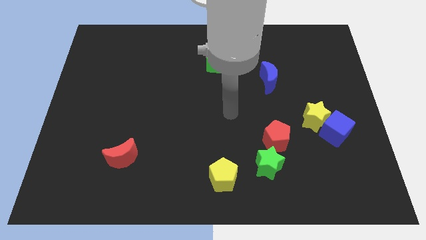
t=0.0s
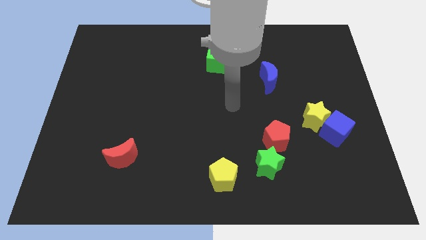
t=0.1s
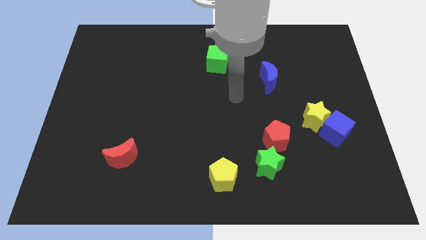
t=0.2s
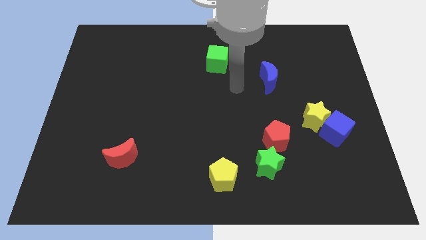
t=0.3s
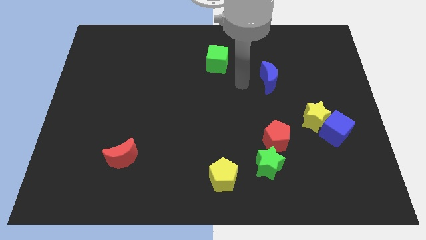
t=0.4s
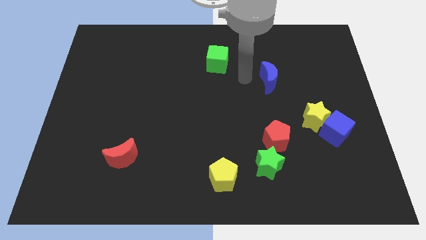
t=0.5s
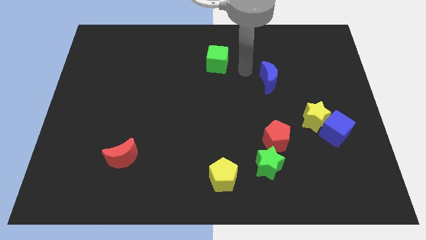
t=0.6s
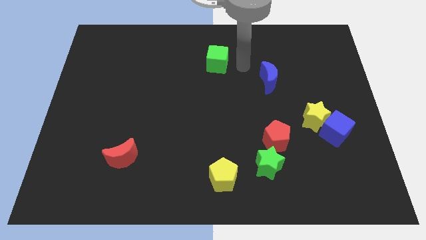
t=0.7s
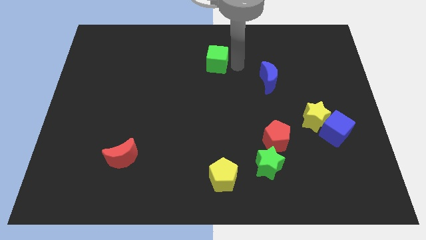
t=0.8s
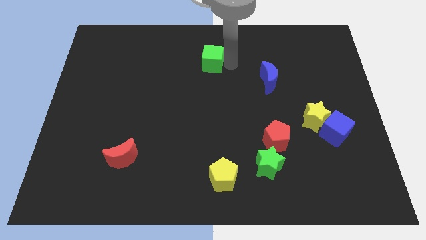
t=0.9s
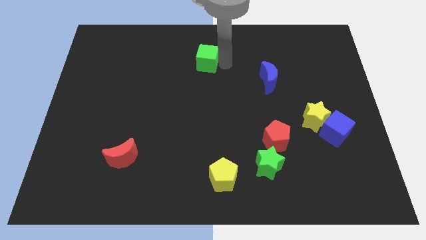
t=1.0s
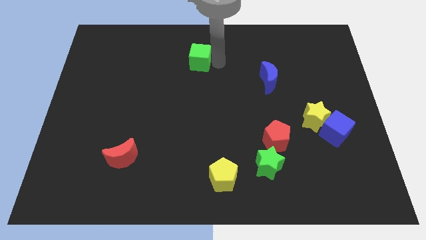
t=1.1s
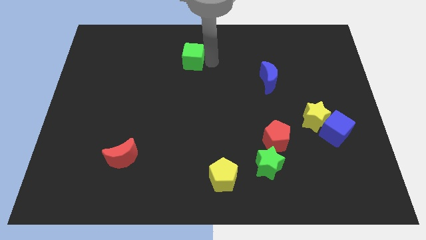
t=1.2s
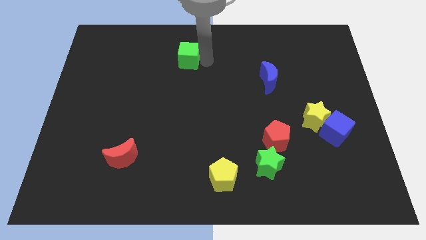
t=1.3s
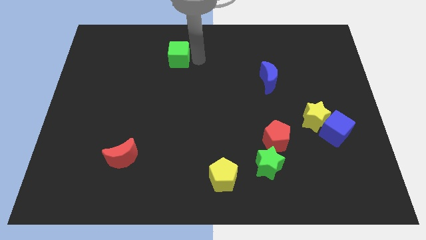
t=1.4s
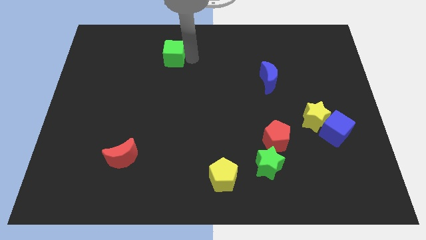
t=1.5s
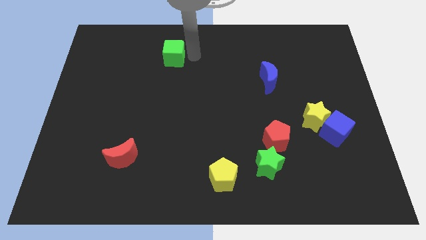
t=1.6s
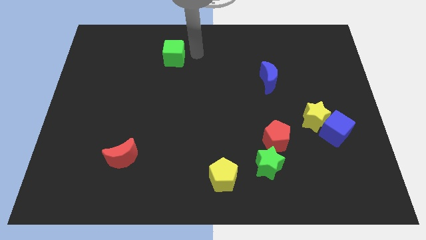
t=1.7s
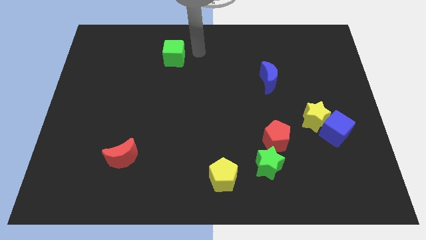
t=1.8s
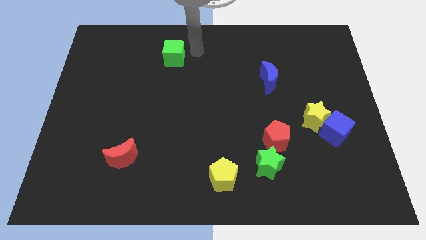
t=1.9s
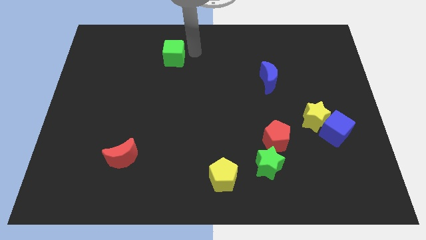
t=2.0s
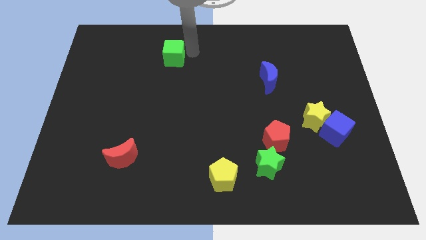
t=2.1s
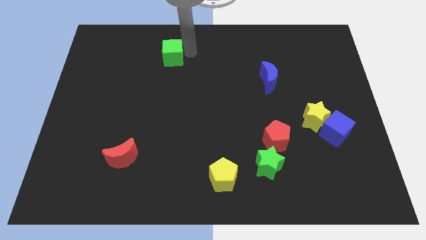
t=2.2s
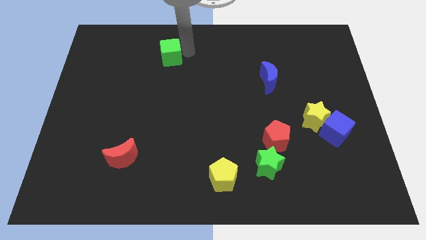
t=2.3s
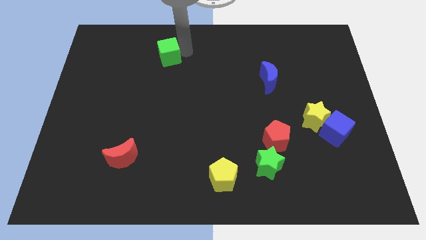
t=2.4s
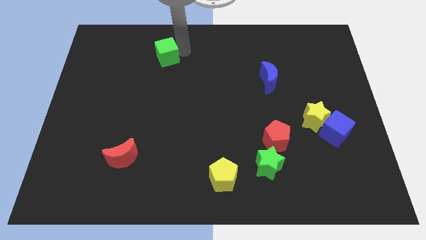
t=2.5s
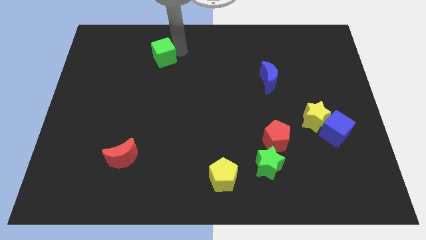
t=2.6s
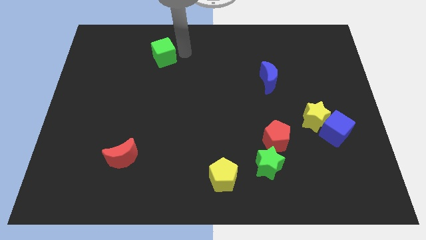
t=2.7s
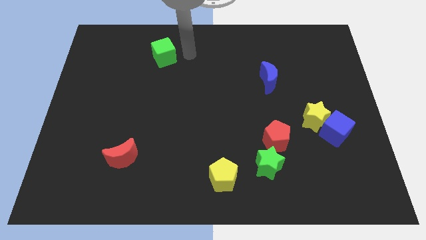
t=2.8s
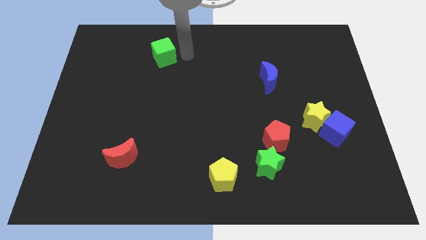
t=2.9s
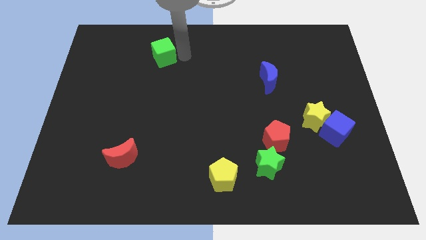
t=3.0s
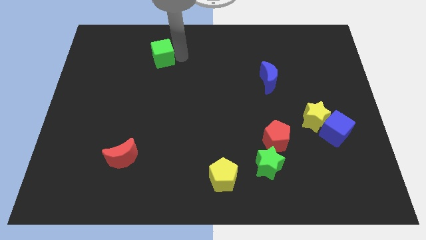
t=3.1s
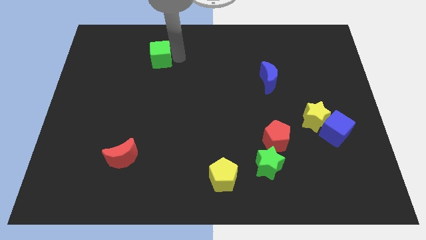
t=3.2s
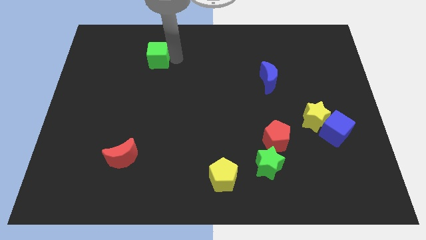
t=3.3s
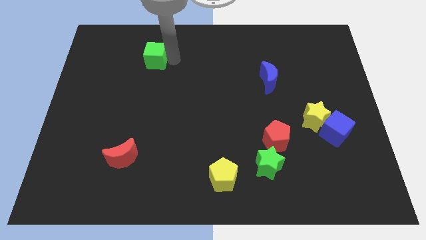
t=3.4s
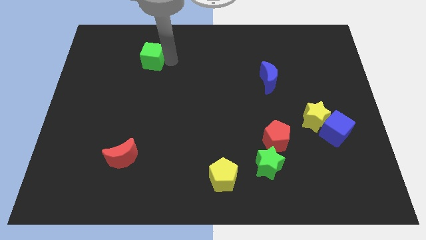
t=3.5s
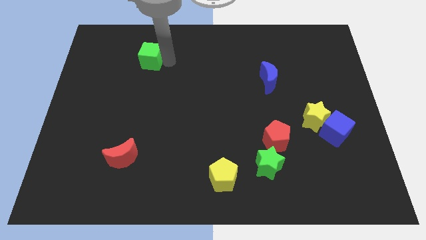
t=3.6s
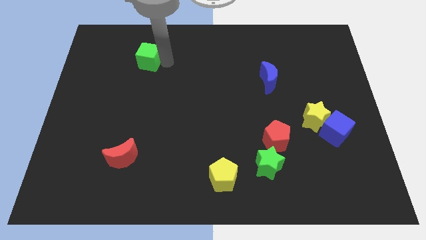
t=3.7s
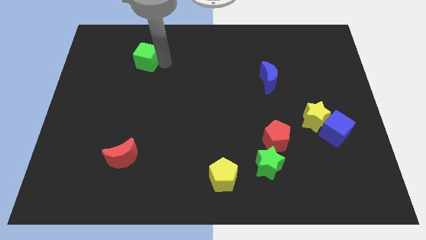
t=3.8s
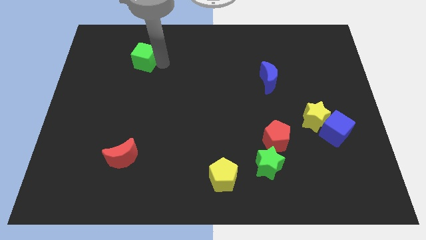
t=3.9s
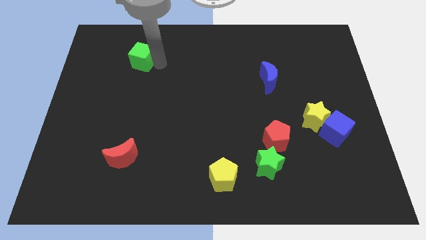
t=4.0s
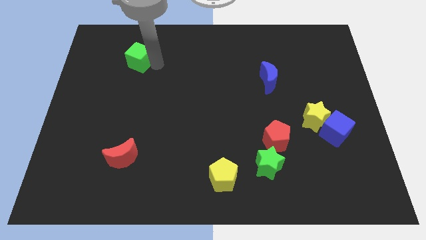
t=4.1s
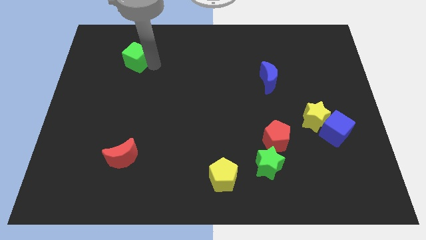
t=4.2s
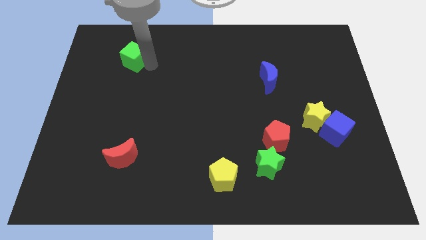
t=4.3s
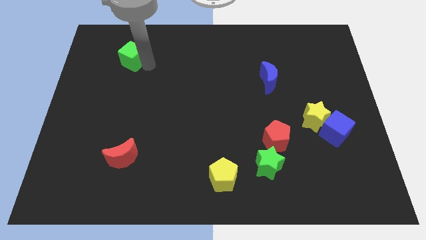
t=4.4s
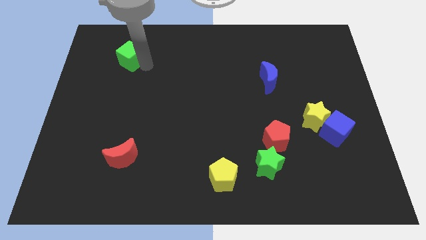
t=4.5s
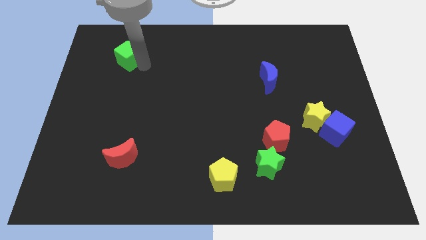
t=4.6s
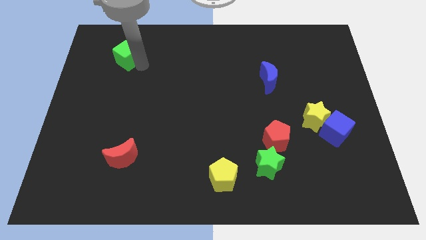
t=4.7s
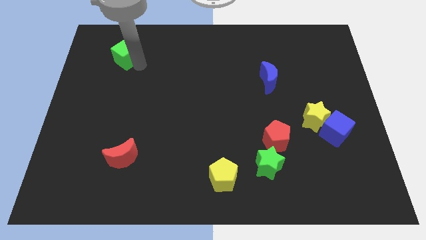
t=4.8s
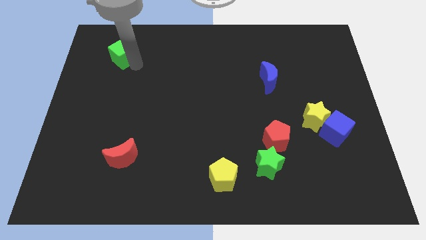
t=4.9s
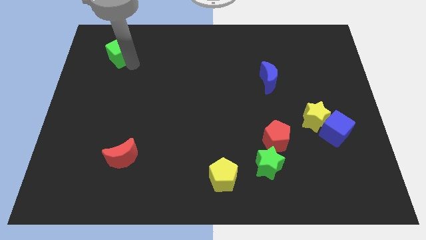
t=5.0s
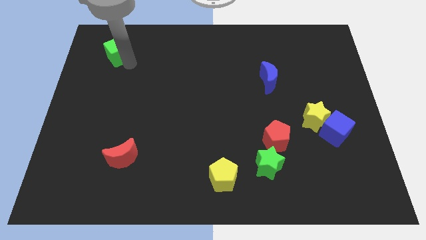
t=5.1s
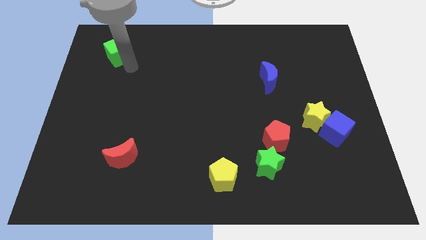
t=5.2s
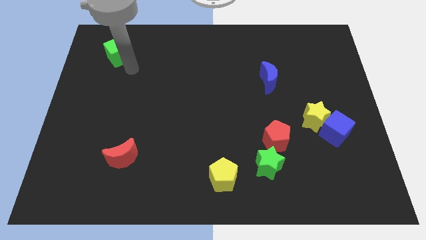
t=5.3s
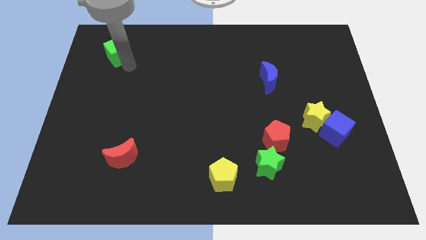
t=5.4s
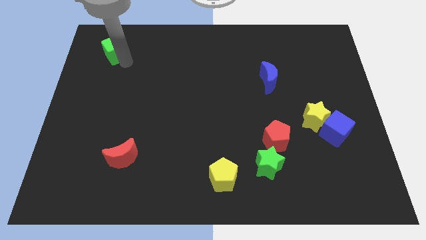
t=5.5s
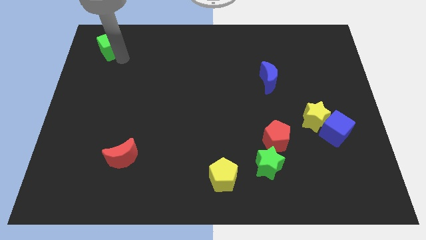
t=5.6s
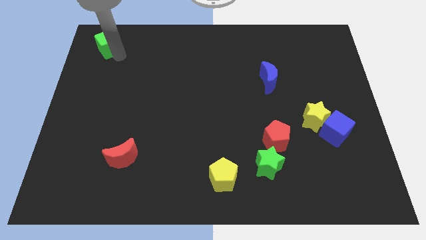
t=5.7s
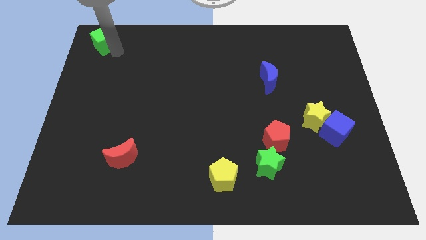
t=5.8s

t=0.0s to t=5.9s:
put the green cube to the top left corner

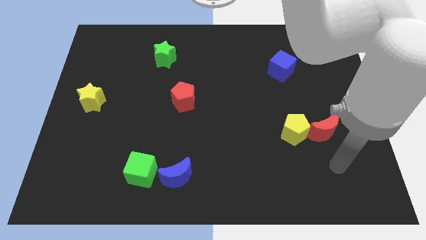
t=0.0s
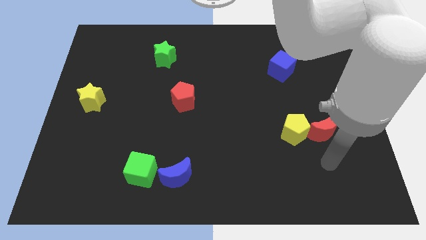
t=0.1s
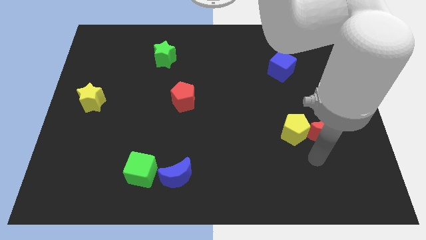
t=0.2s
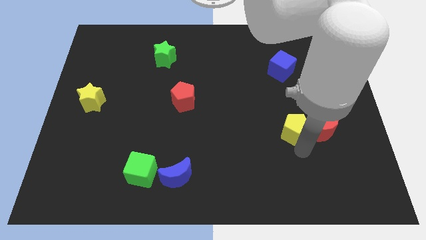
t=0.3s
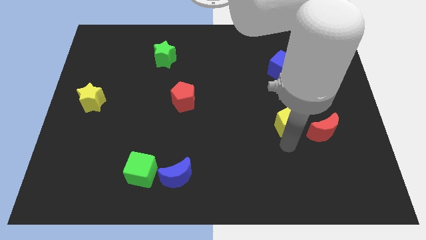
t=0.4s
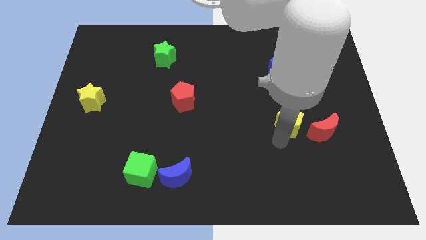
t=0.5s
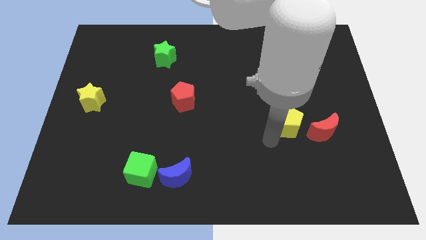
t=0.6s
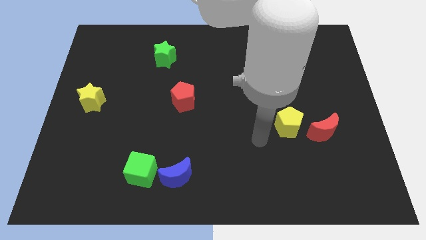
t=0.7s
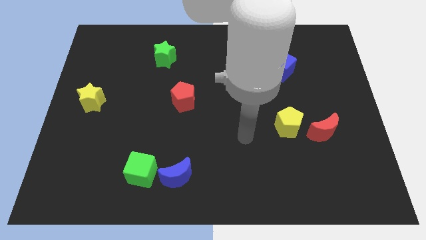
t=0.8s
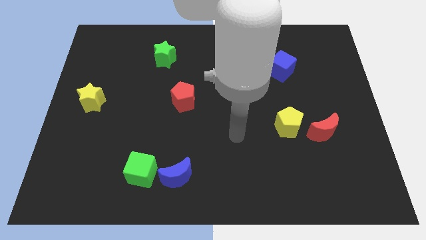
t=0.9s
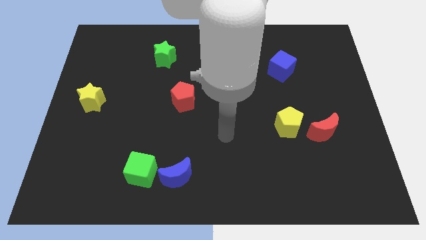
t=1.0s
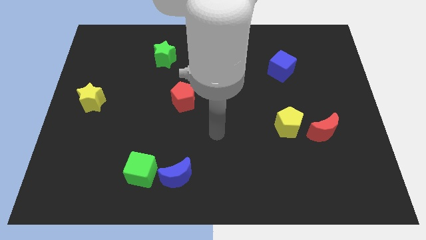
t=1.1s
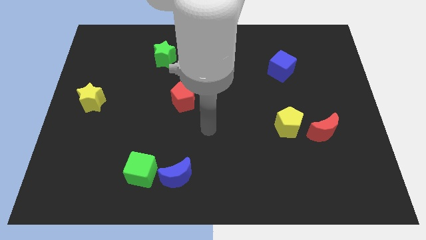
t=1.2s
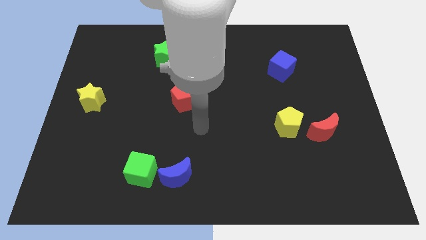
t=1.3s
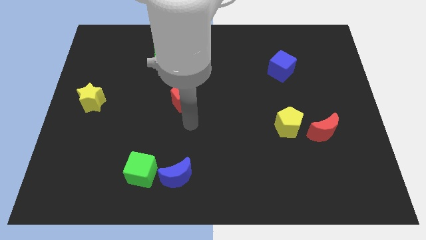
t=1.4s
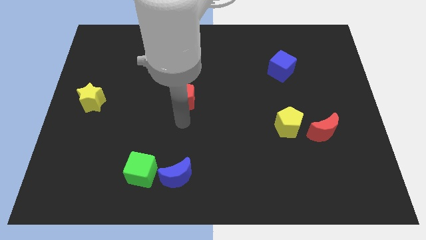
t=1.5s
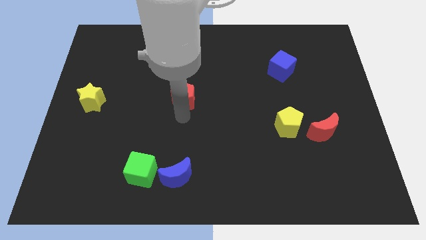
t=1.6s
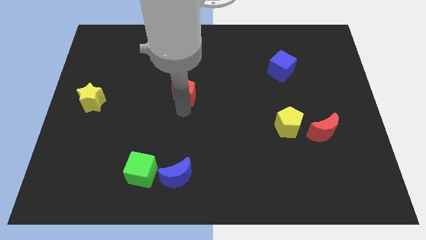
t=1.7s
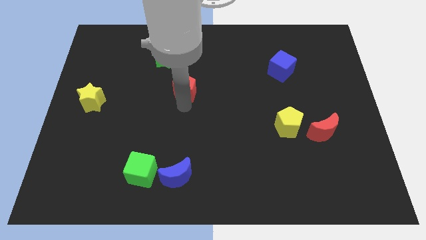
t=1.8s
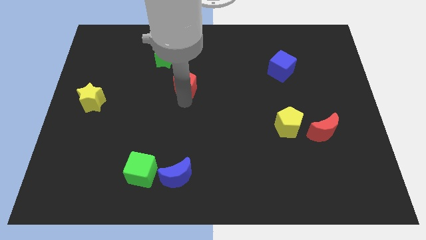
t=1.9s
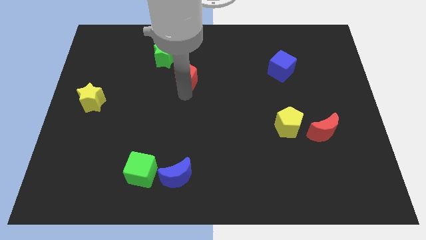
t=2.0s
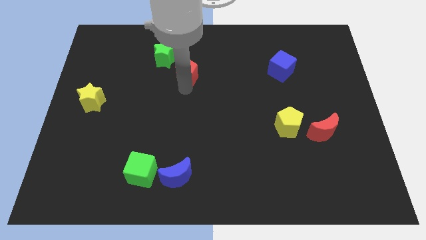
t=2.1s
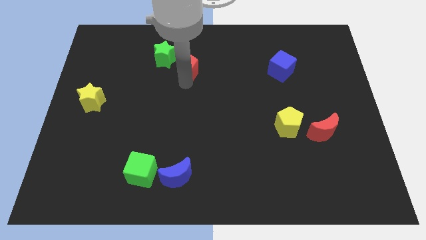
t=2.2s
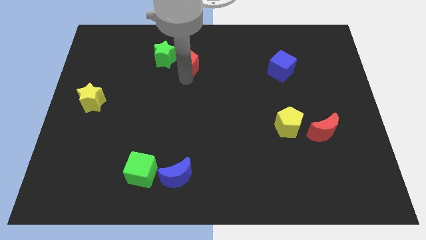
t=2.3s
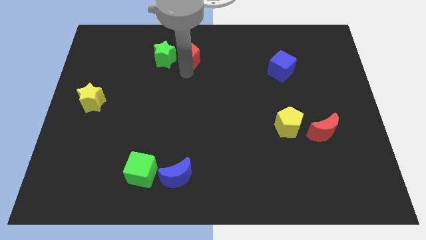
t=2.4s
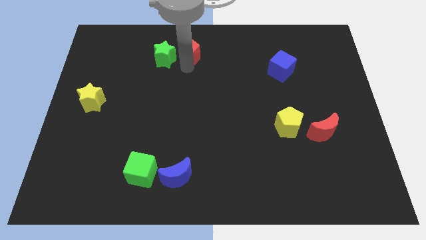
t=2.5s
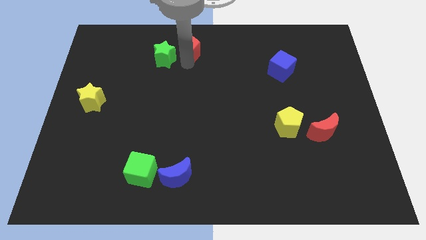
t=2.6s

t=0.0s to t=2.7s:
push the red pentagon to the towards your base
